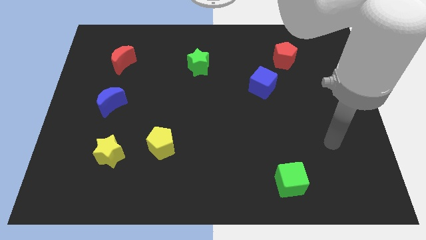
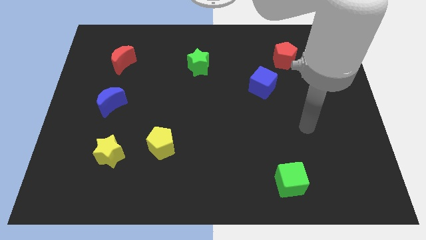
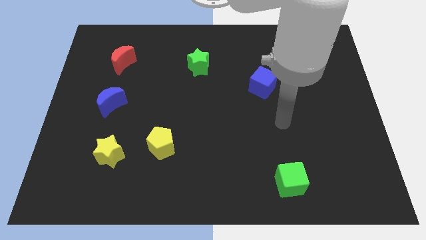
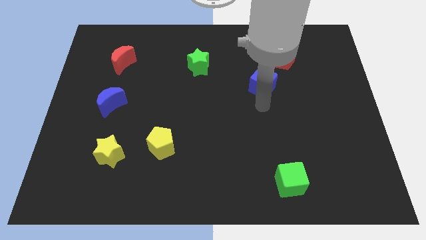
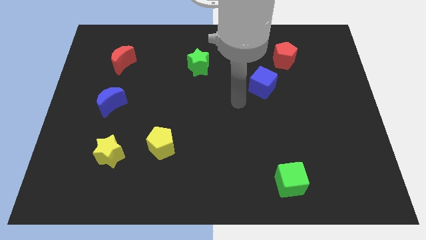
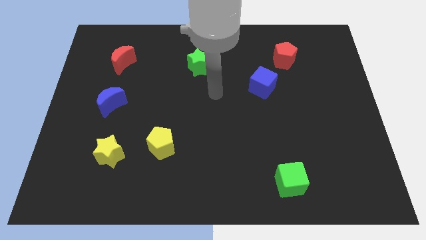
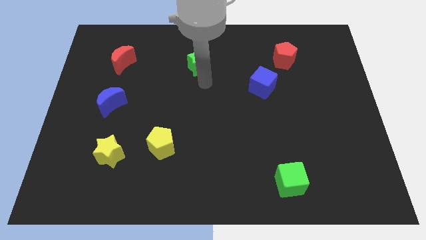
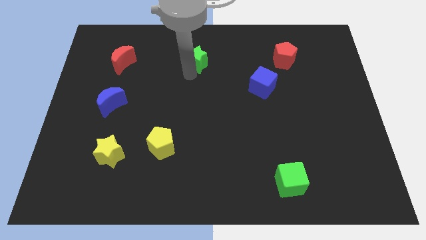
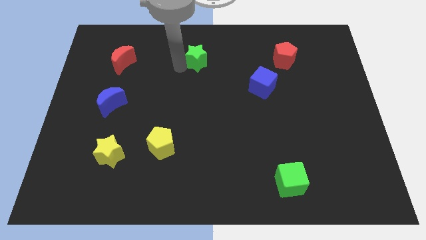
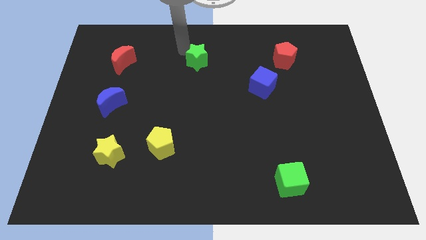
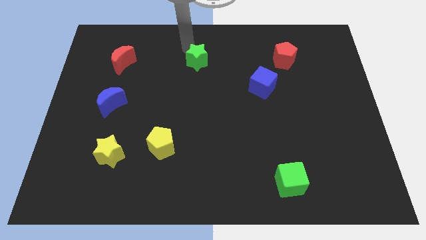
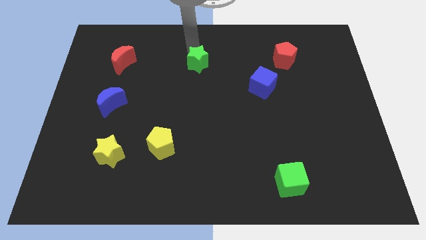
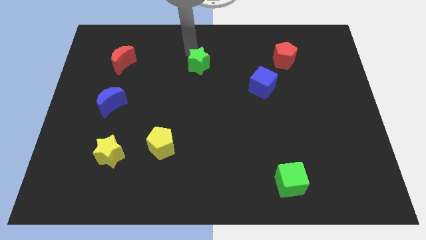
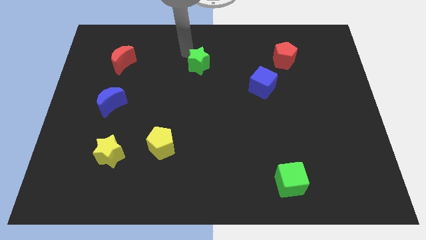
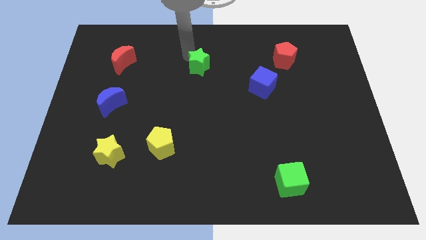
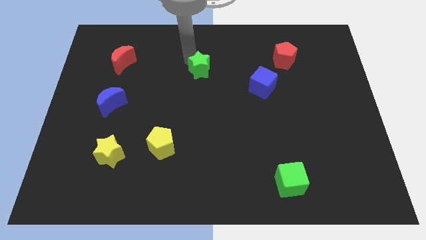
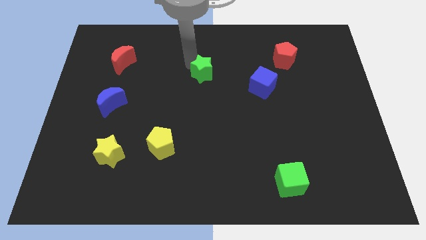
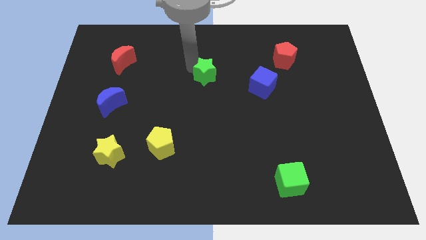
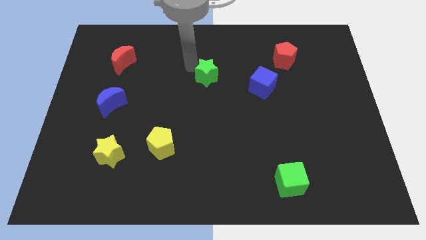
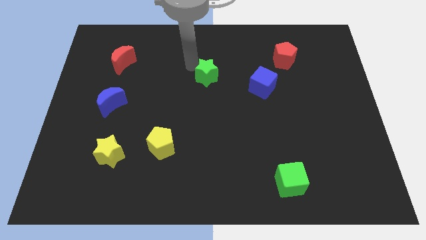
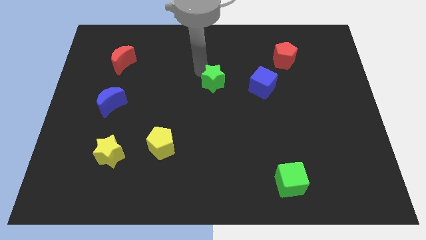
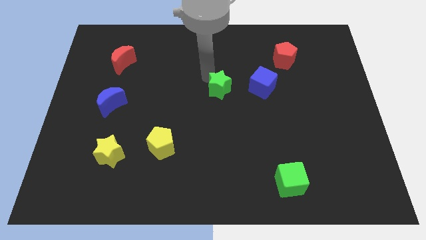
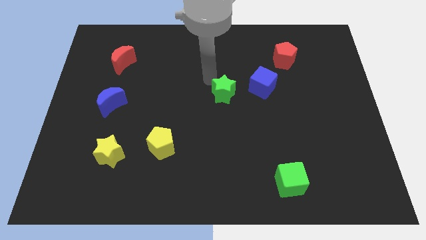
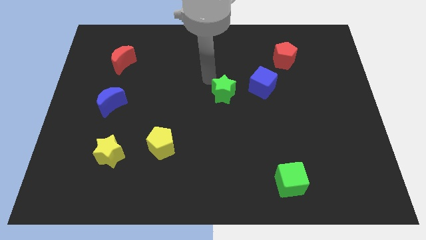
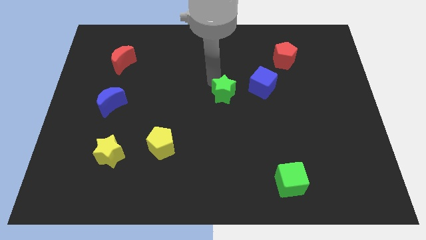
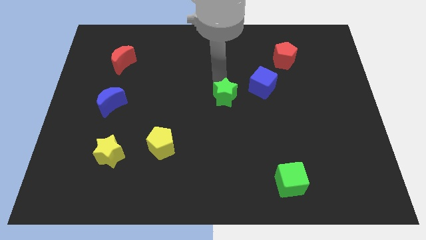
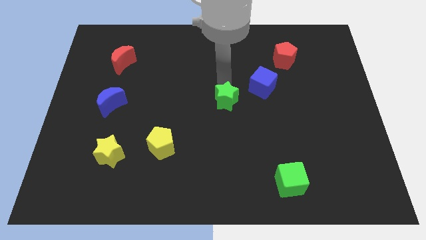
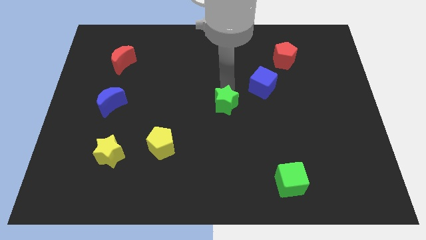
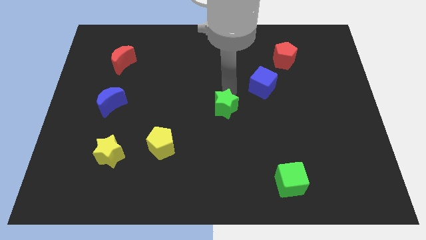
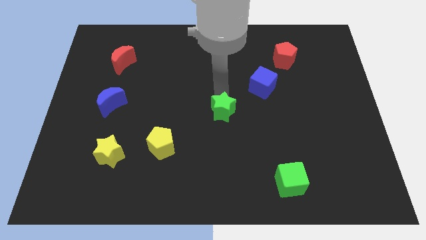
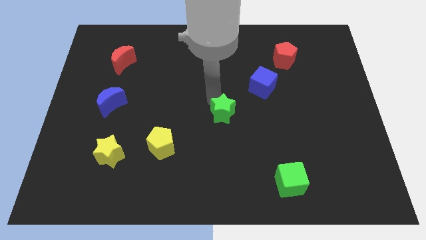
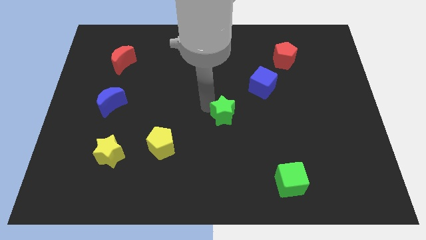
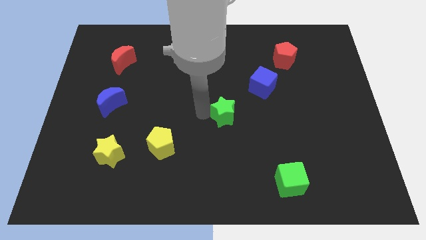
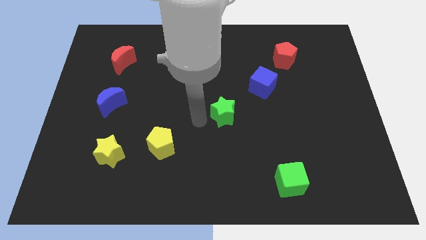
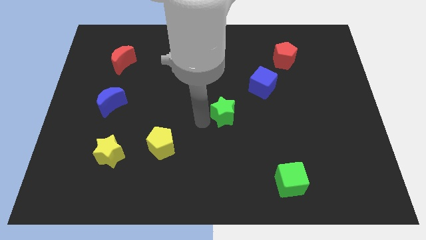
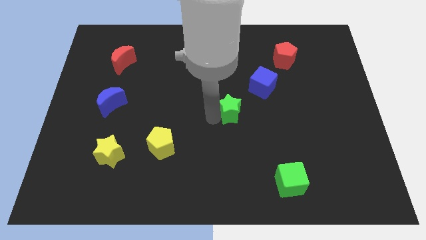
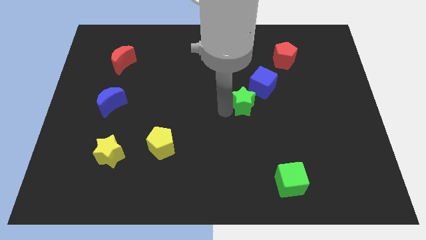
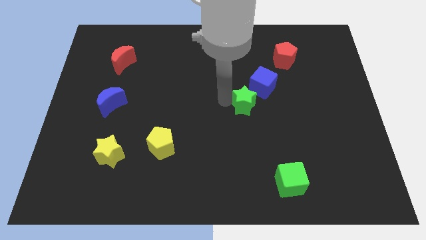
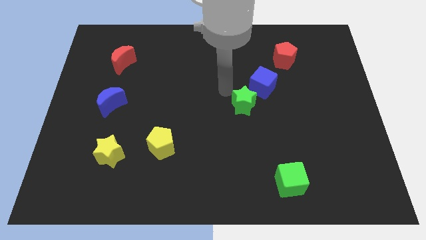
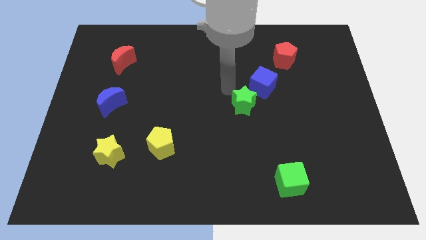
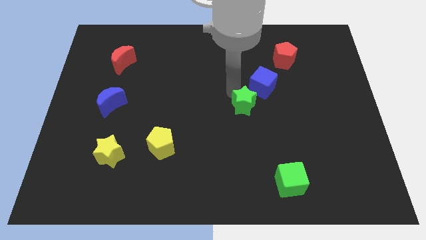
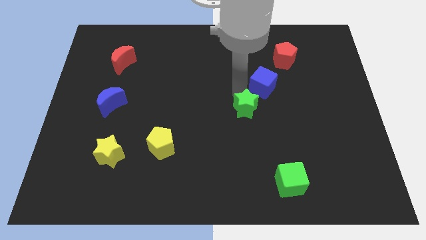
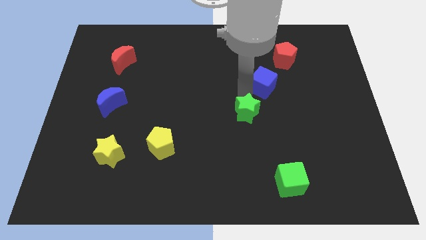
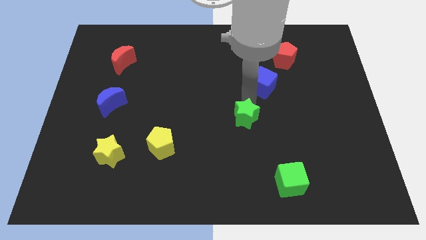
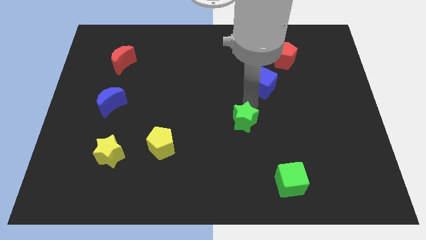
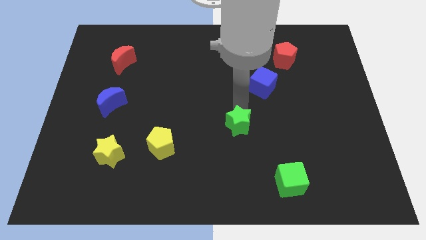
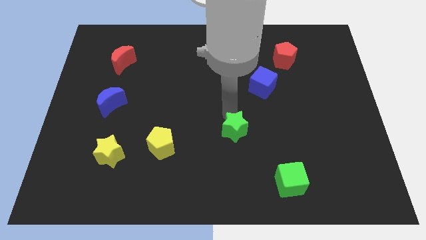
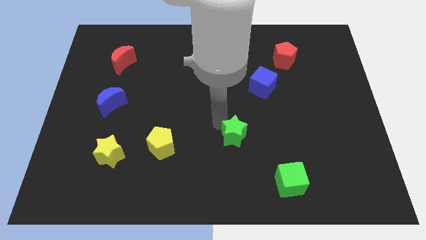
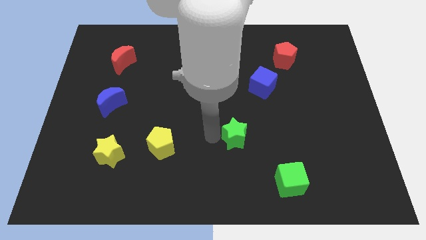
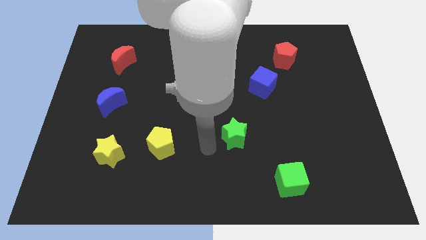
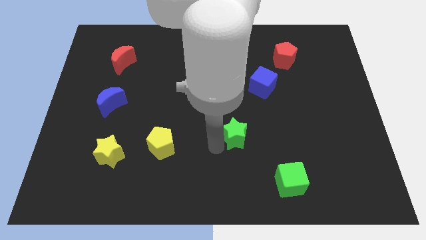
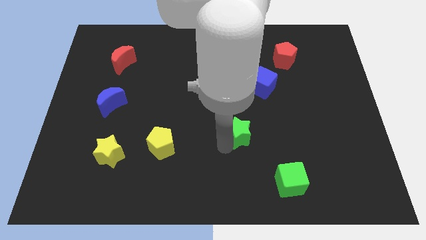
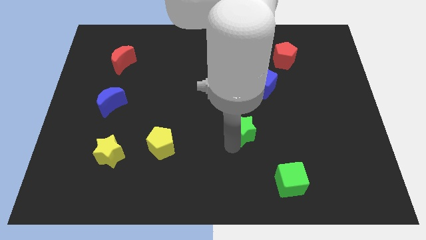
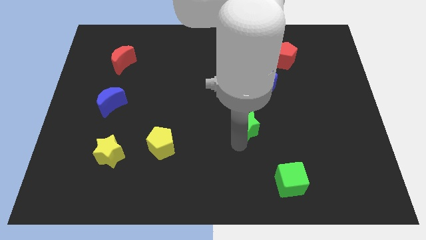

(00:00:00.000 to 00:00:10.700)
slide the green star down and then to the right

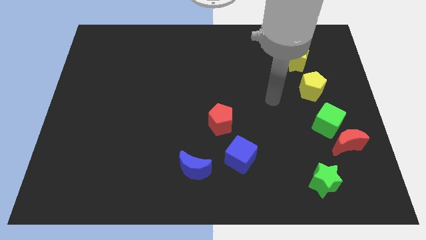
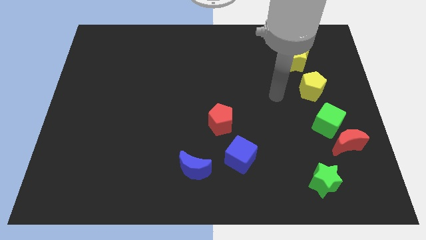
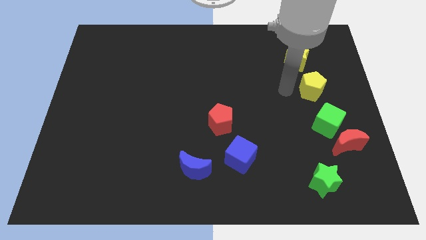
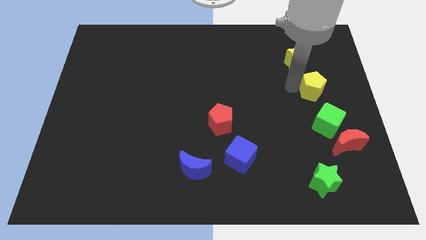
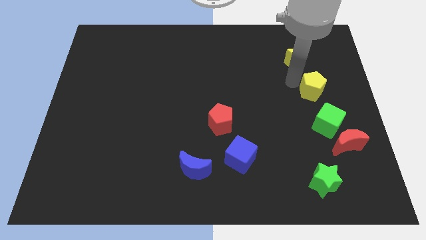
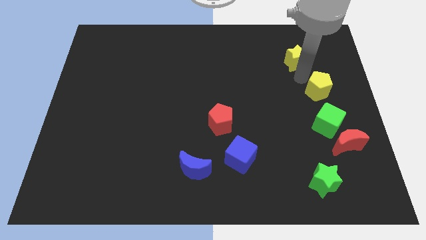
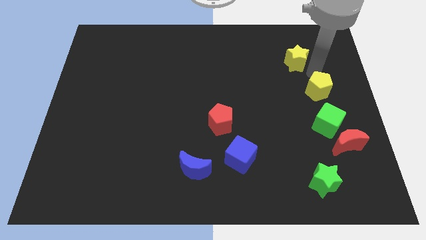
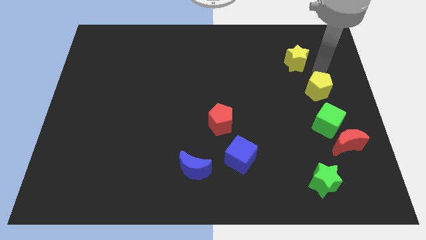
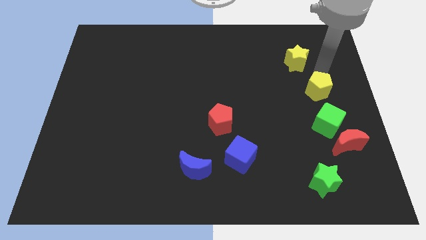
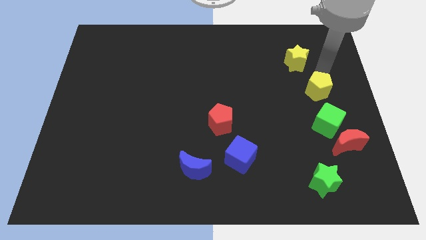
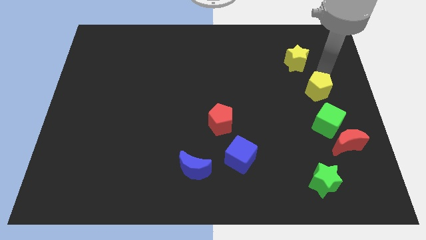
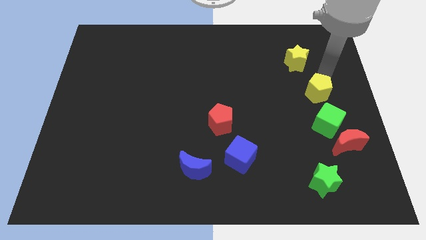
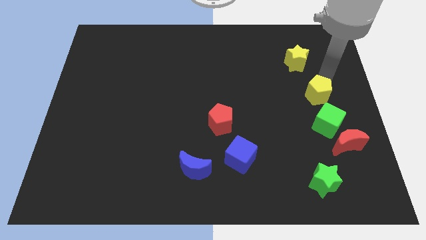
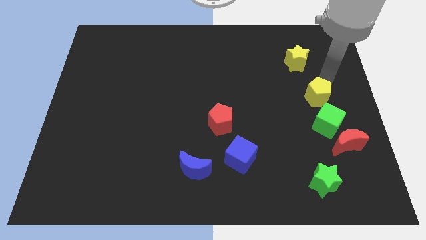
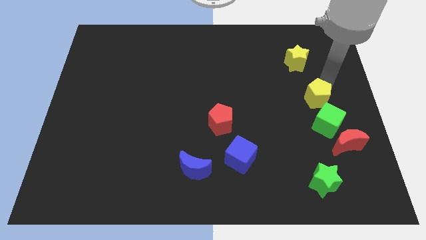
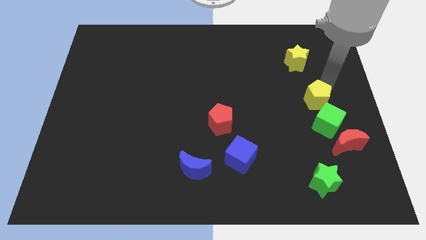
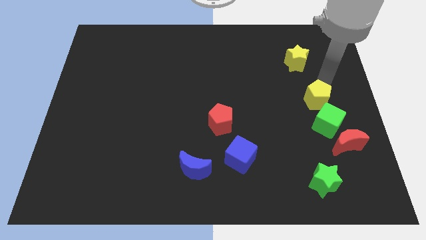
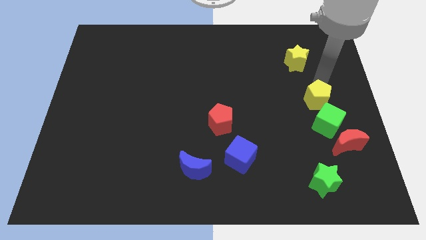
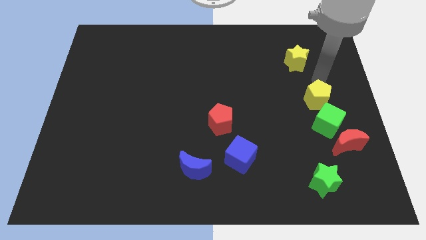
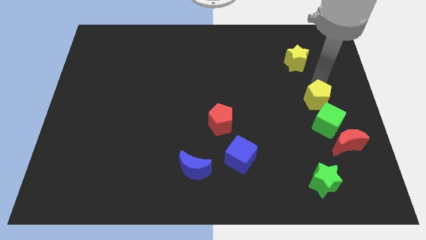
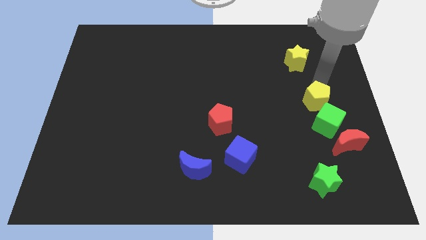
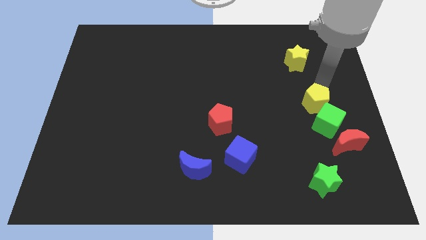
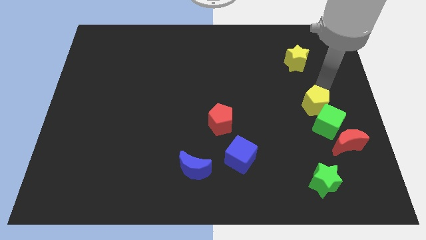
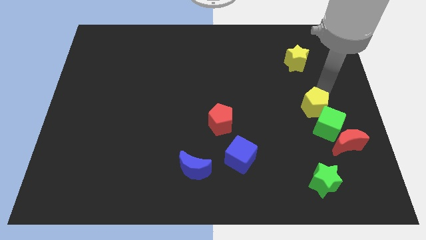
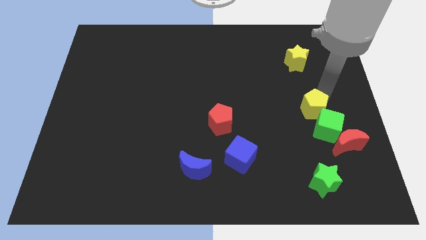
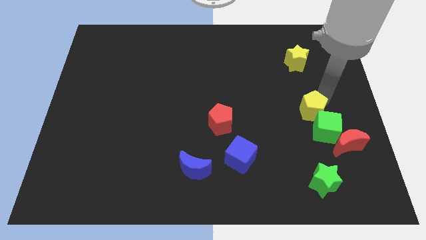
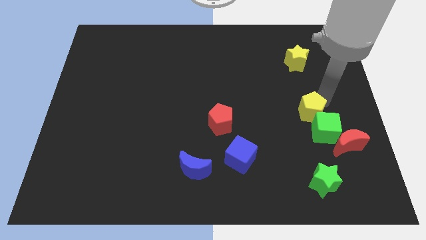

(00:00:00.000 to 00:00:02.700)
slightly slide the yellow pentagon downwards
